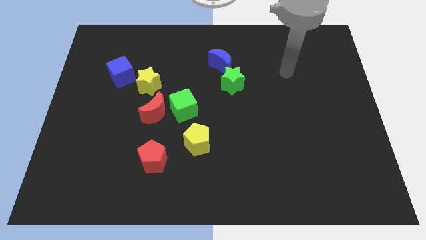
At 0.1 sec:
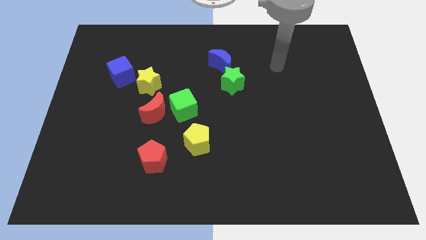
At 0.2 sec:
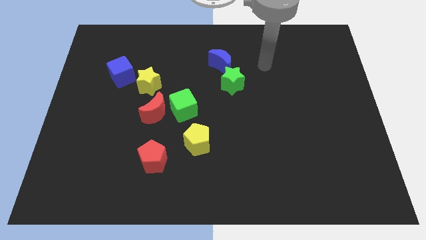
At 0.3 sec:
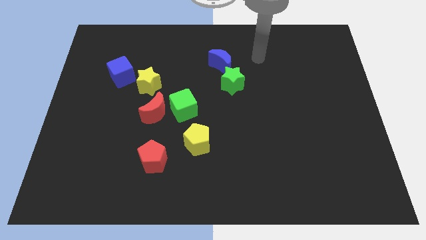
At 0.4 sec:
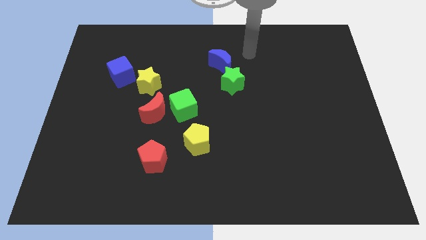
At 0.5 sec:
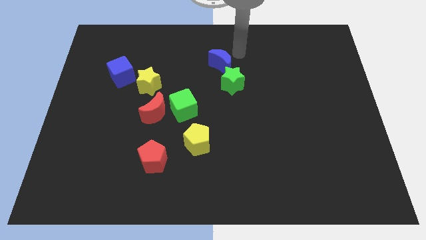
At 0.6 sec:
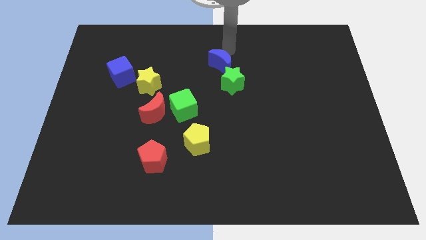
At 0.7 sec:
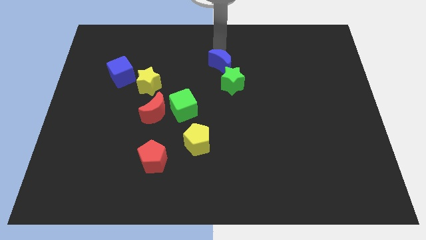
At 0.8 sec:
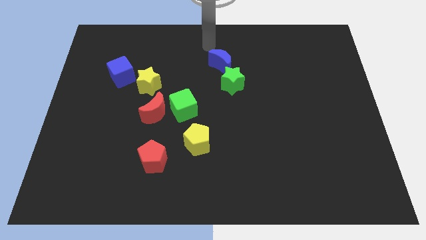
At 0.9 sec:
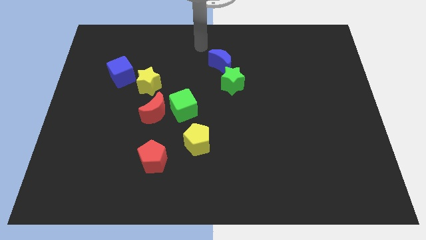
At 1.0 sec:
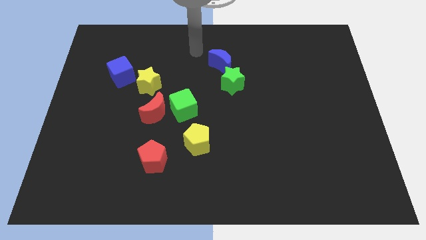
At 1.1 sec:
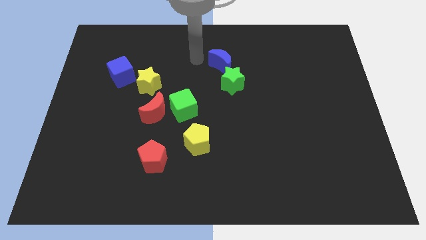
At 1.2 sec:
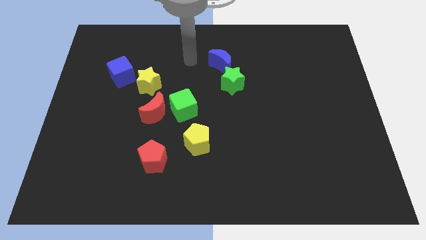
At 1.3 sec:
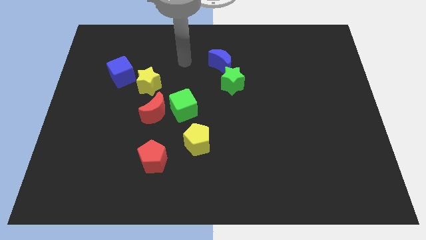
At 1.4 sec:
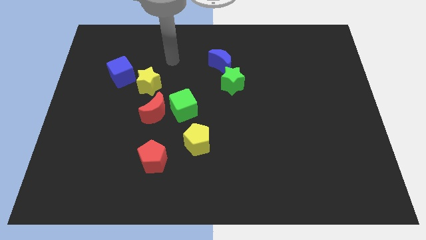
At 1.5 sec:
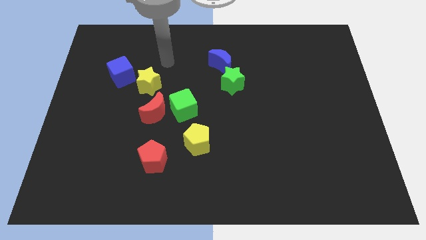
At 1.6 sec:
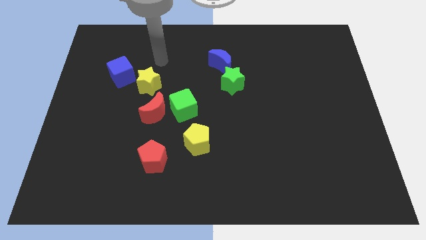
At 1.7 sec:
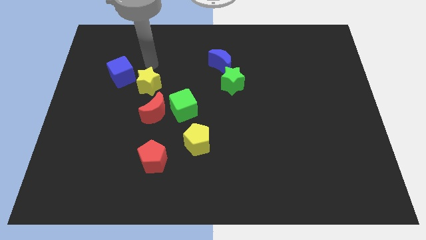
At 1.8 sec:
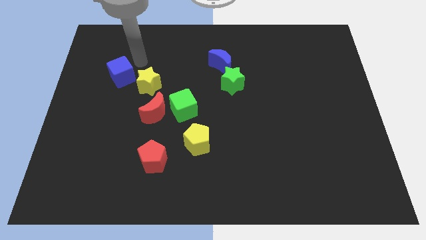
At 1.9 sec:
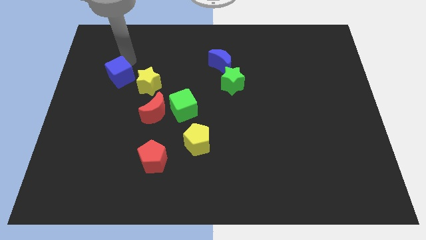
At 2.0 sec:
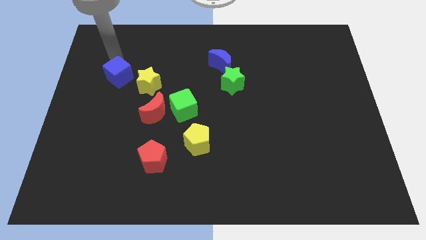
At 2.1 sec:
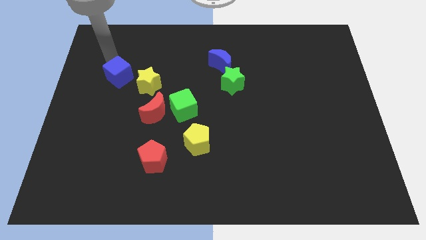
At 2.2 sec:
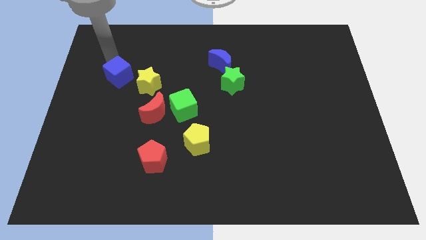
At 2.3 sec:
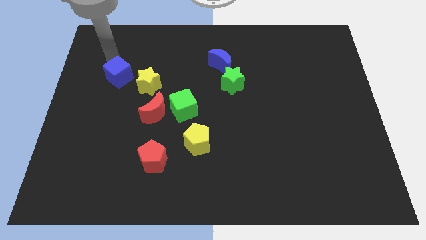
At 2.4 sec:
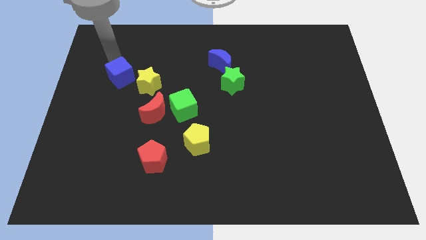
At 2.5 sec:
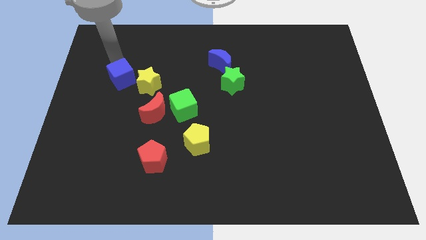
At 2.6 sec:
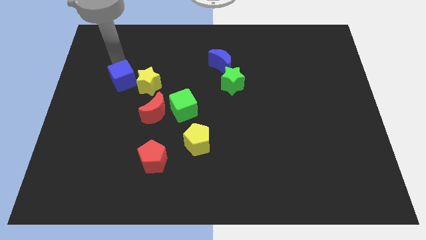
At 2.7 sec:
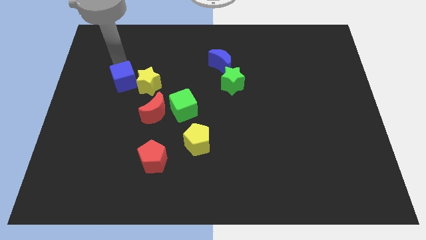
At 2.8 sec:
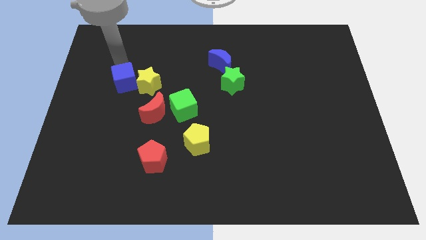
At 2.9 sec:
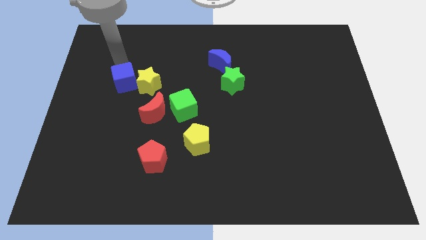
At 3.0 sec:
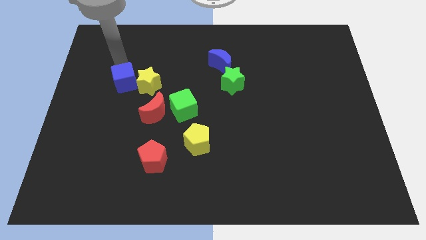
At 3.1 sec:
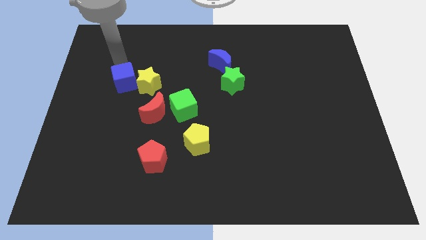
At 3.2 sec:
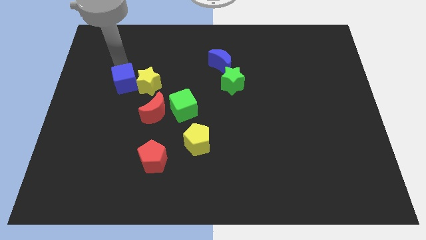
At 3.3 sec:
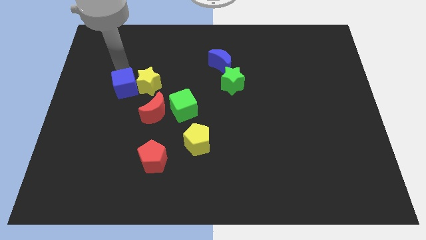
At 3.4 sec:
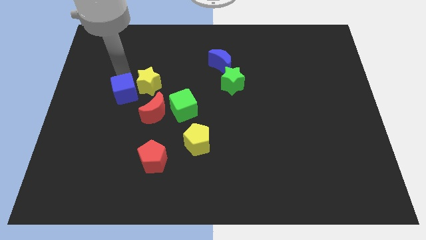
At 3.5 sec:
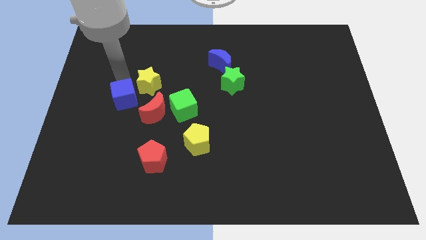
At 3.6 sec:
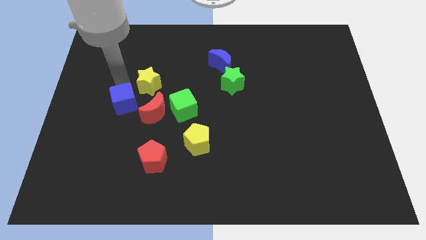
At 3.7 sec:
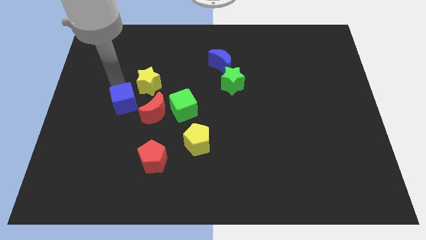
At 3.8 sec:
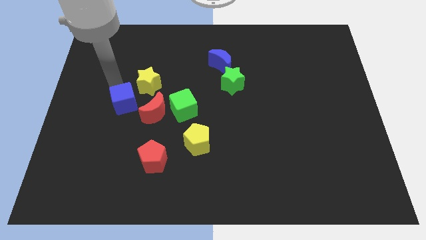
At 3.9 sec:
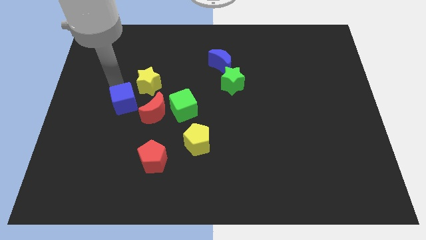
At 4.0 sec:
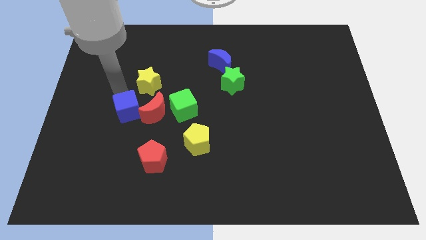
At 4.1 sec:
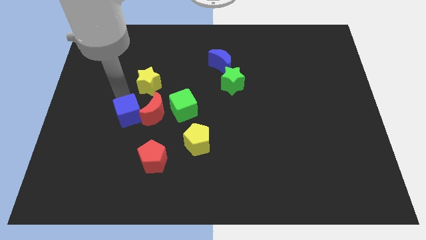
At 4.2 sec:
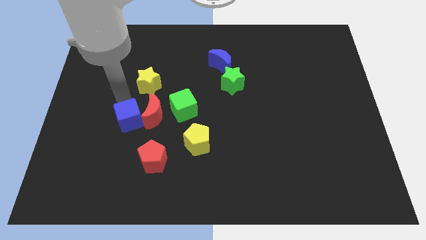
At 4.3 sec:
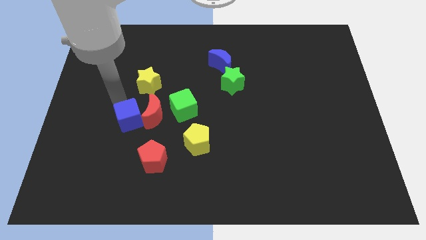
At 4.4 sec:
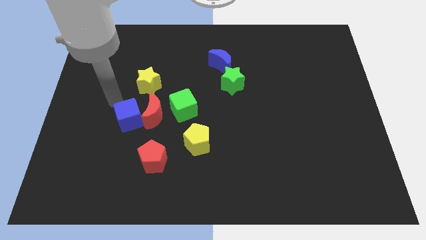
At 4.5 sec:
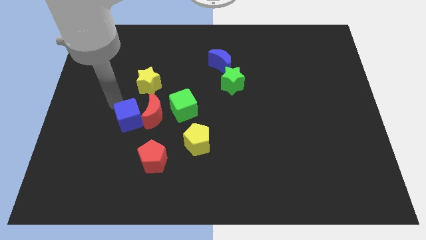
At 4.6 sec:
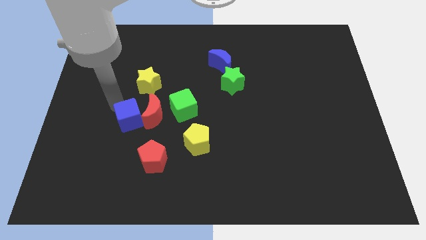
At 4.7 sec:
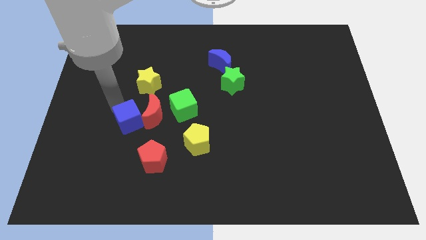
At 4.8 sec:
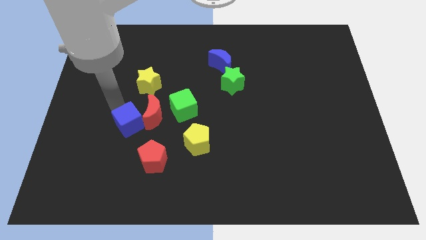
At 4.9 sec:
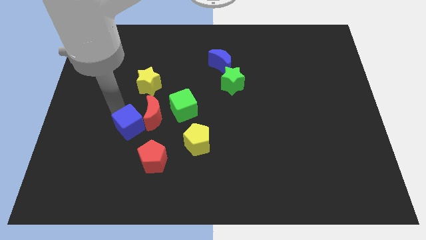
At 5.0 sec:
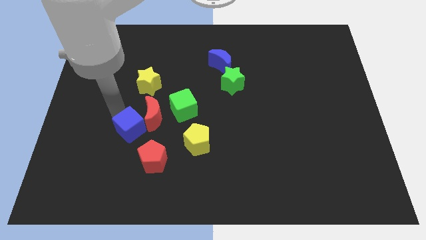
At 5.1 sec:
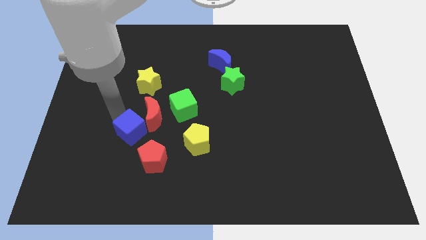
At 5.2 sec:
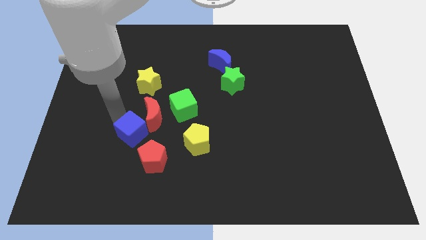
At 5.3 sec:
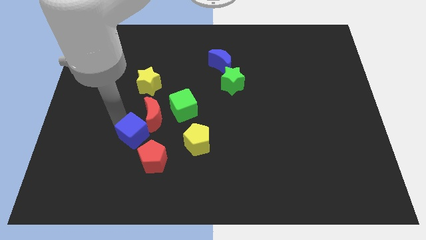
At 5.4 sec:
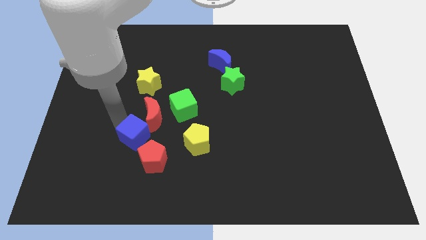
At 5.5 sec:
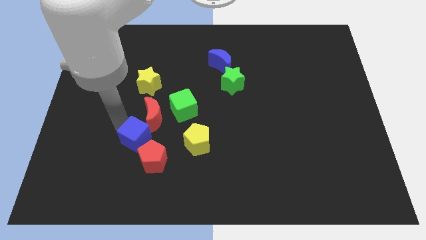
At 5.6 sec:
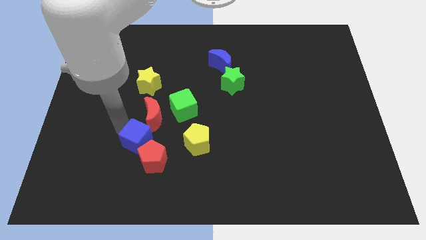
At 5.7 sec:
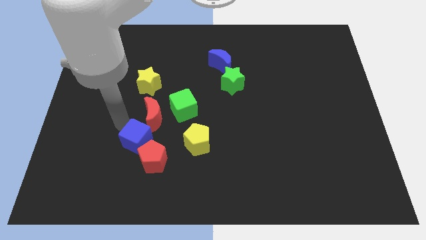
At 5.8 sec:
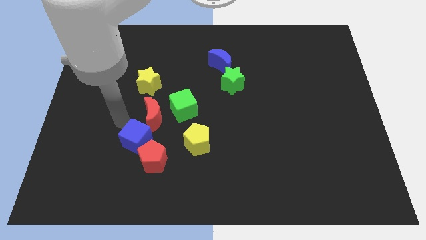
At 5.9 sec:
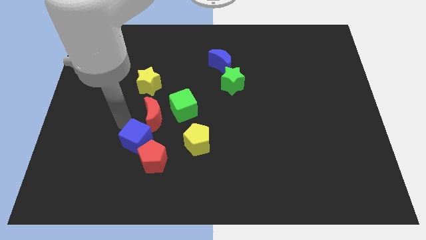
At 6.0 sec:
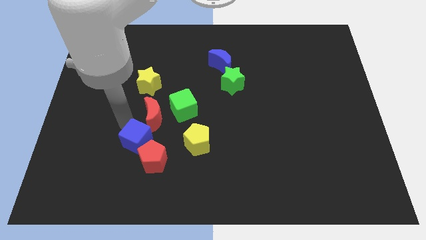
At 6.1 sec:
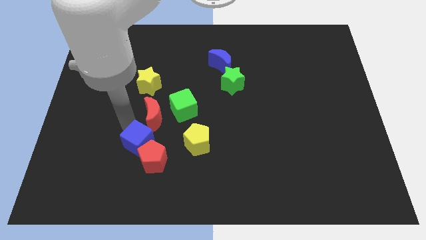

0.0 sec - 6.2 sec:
put the blue cube towards the red pentagon

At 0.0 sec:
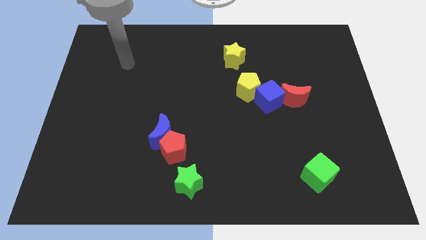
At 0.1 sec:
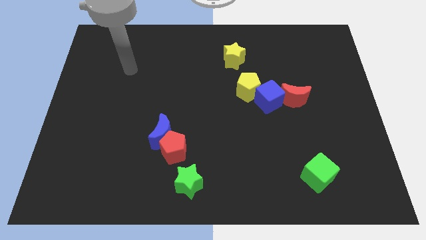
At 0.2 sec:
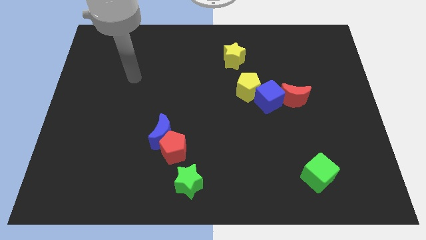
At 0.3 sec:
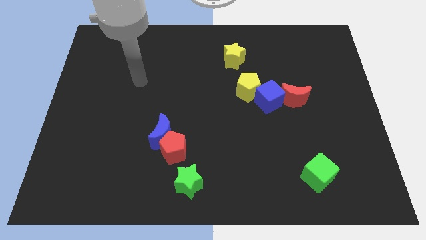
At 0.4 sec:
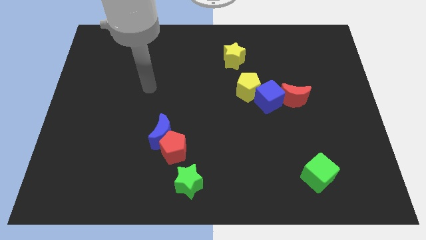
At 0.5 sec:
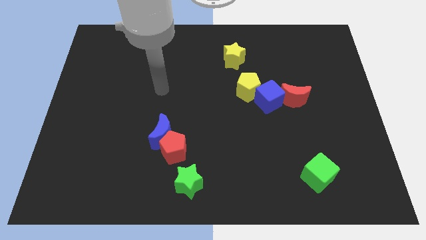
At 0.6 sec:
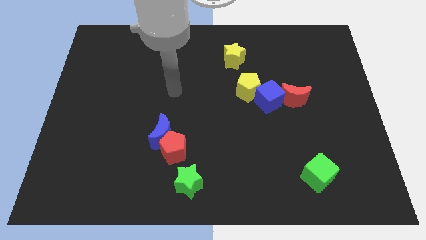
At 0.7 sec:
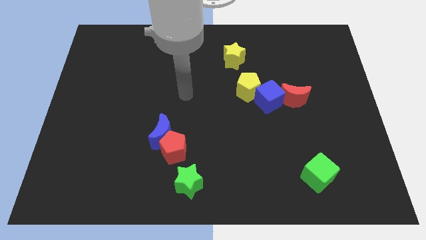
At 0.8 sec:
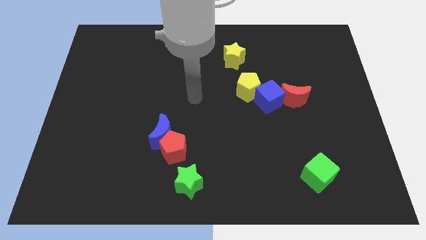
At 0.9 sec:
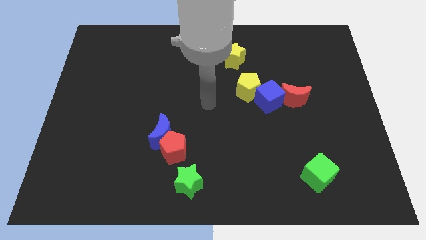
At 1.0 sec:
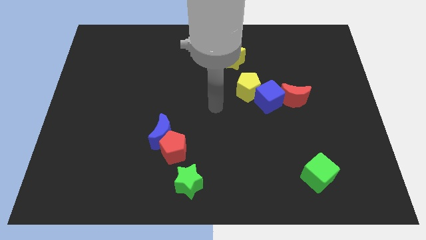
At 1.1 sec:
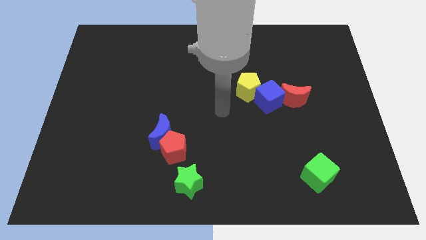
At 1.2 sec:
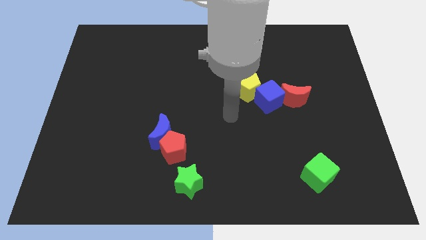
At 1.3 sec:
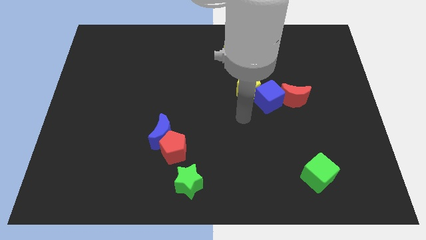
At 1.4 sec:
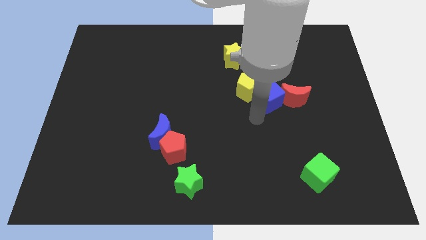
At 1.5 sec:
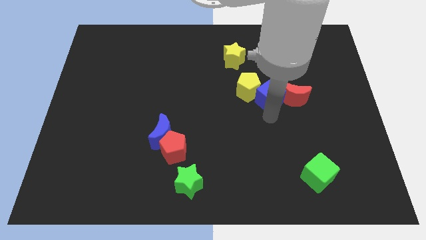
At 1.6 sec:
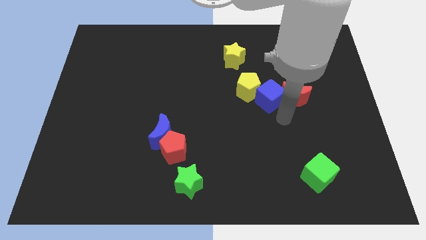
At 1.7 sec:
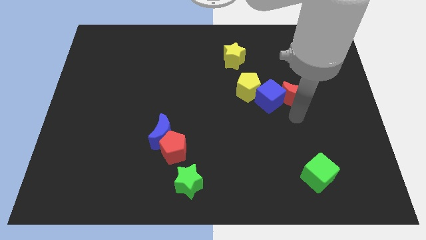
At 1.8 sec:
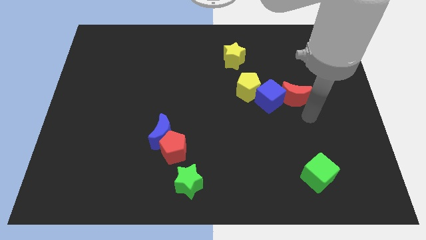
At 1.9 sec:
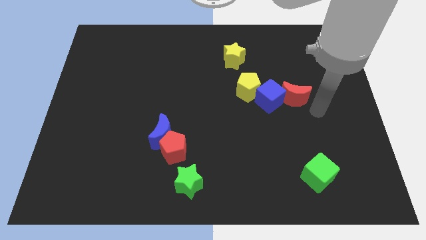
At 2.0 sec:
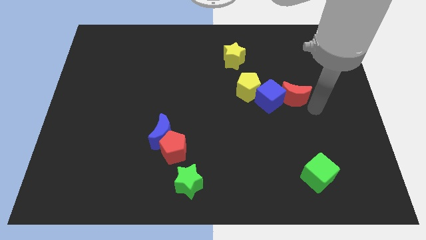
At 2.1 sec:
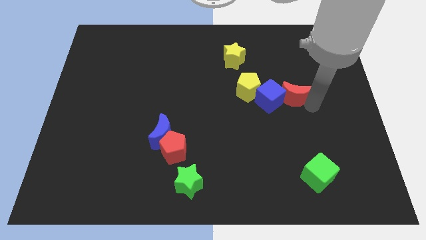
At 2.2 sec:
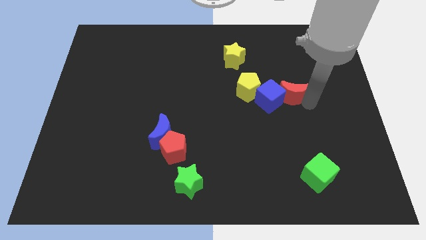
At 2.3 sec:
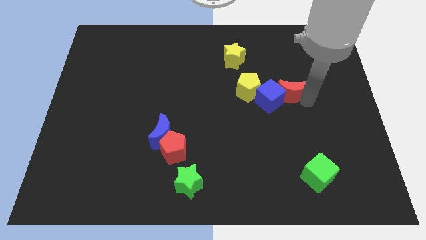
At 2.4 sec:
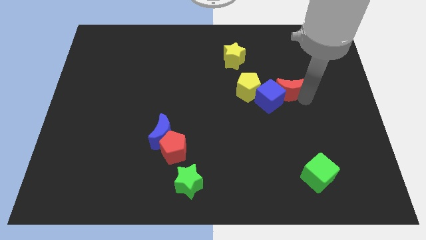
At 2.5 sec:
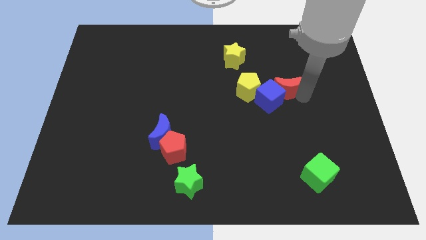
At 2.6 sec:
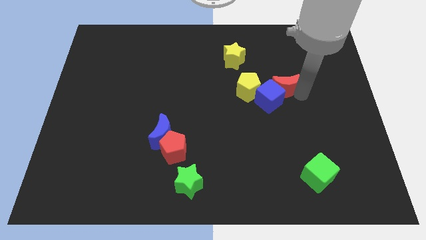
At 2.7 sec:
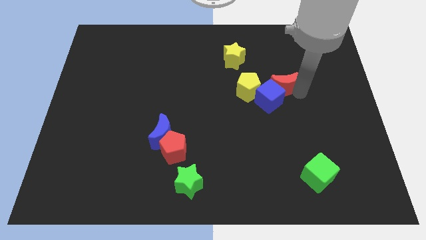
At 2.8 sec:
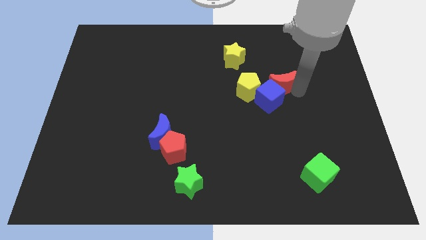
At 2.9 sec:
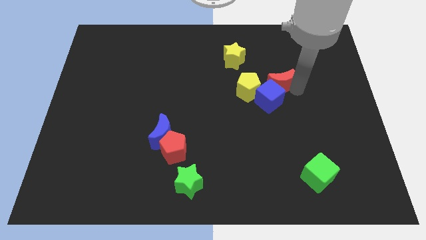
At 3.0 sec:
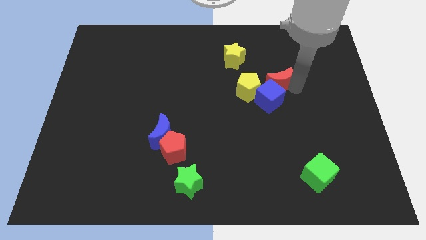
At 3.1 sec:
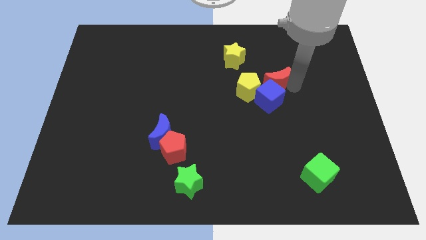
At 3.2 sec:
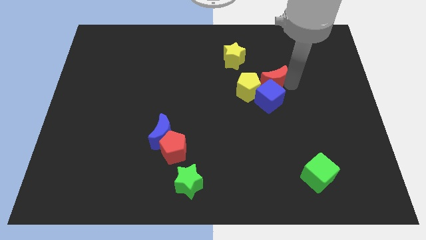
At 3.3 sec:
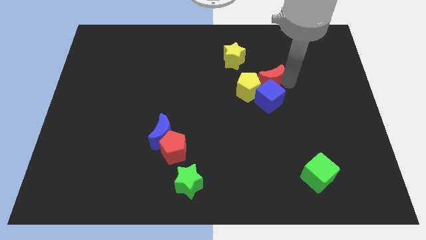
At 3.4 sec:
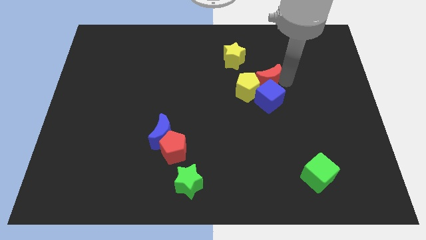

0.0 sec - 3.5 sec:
slide the red moon towards the yellow pentagon
